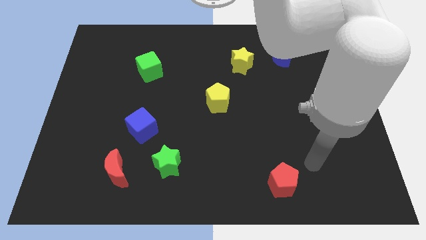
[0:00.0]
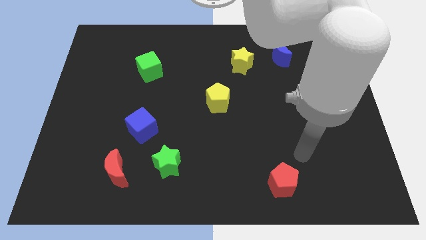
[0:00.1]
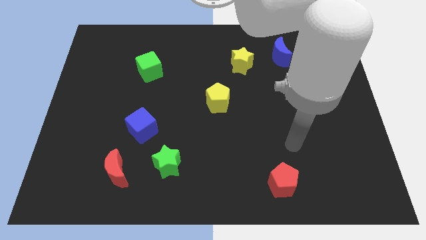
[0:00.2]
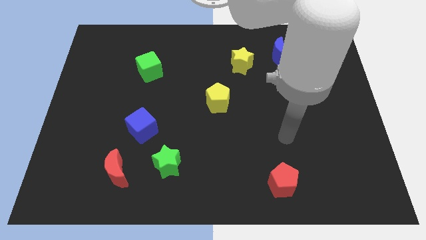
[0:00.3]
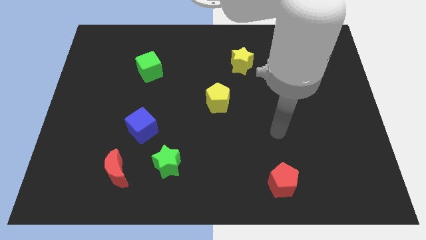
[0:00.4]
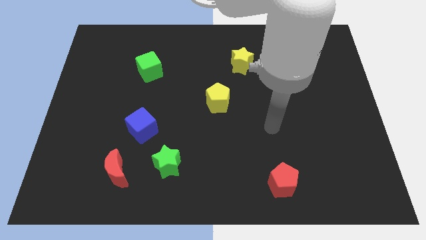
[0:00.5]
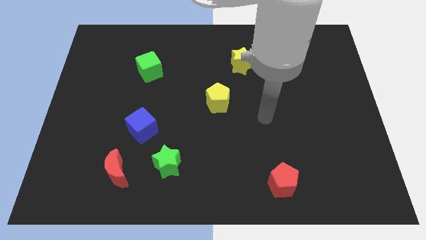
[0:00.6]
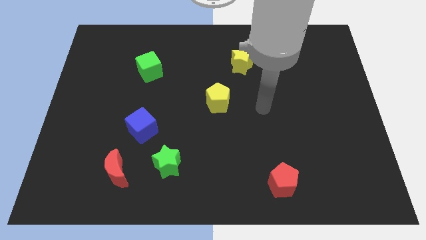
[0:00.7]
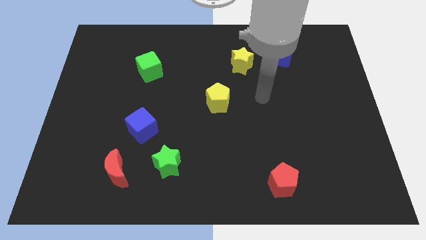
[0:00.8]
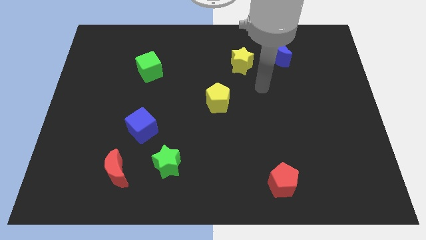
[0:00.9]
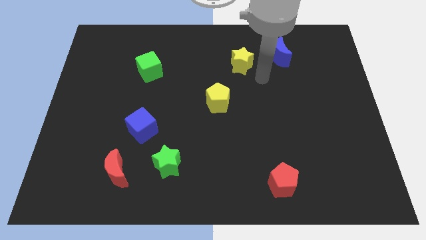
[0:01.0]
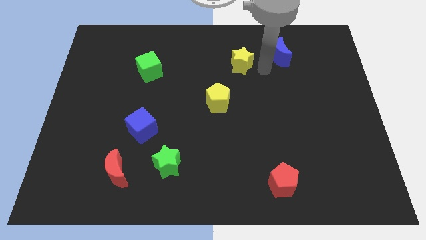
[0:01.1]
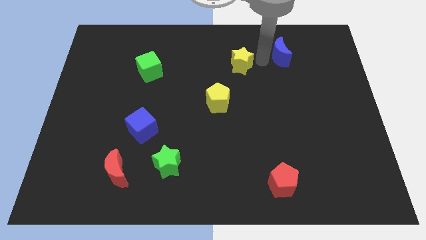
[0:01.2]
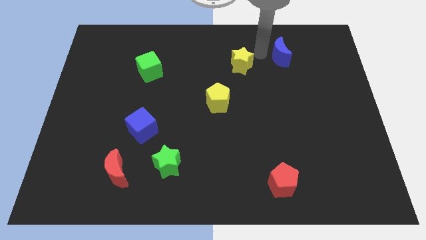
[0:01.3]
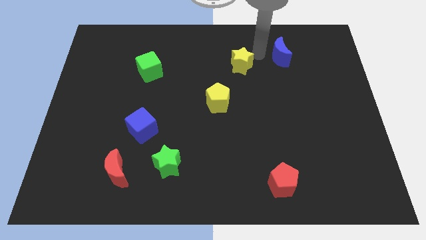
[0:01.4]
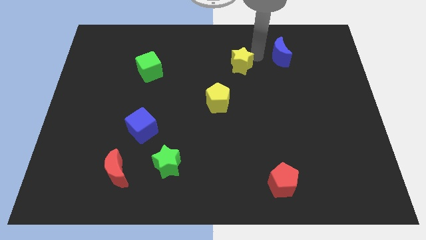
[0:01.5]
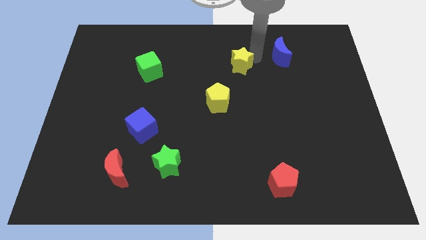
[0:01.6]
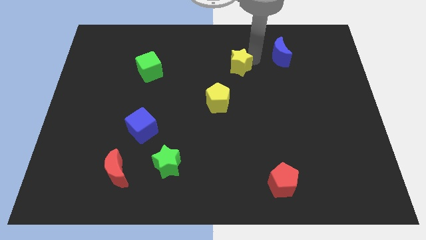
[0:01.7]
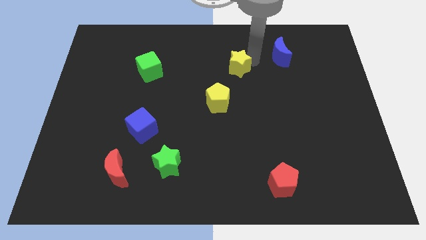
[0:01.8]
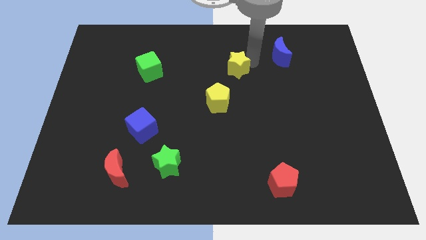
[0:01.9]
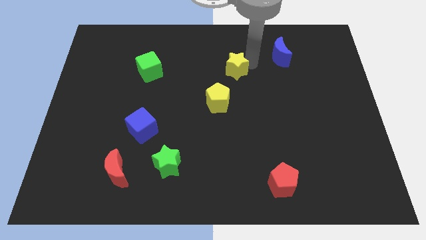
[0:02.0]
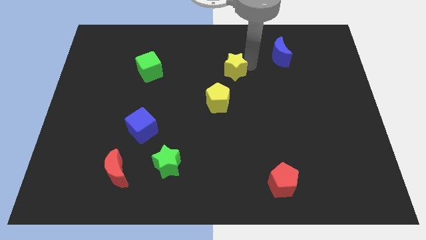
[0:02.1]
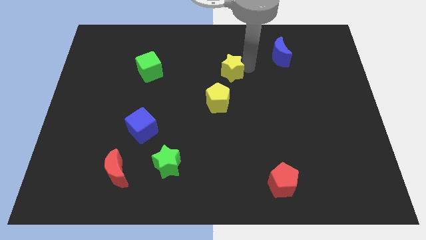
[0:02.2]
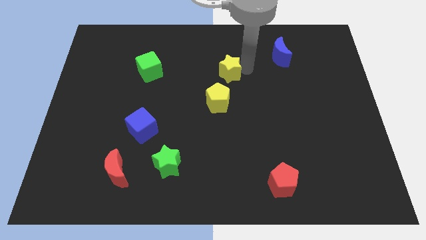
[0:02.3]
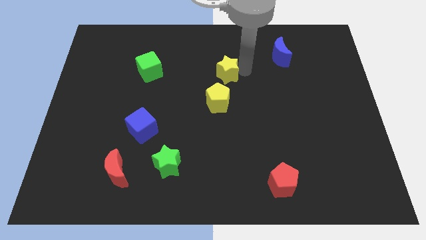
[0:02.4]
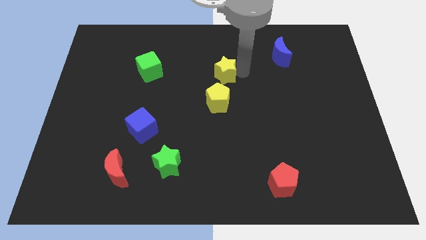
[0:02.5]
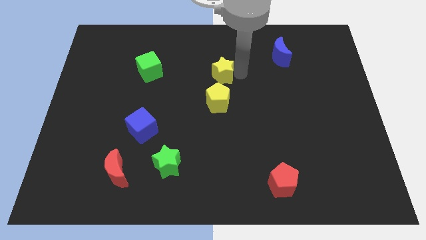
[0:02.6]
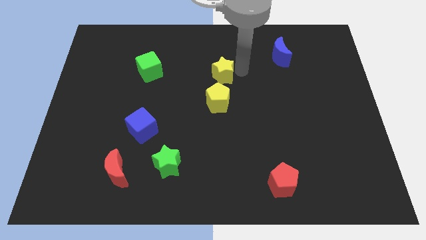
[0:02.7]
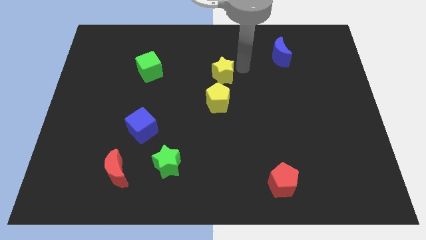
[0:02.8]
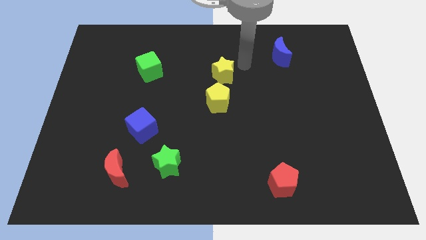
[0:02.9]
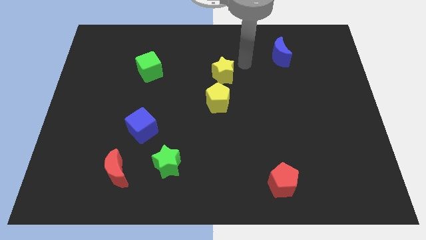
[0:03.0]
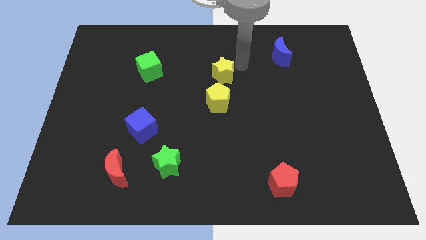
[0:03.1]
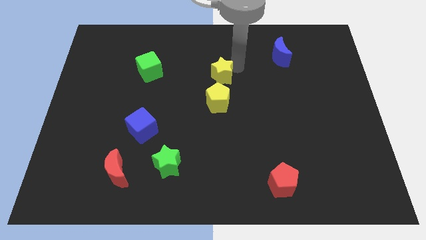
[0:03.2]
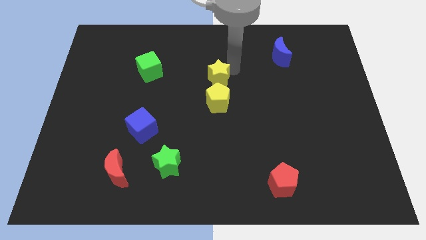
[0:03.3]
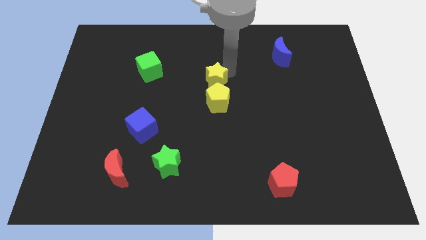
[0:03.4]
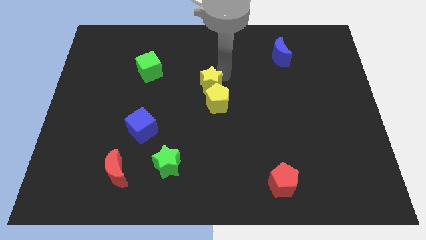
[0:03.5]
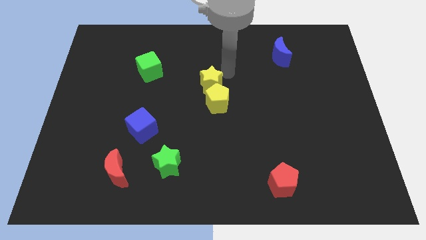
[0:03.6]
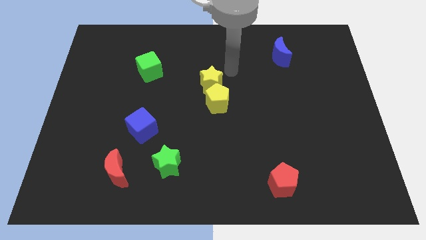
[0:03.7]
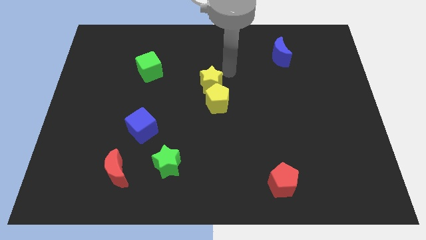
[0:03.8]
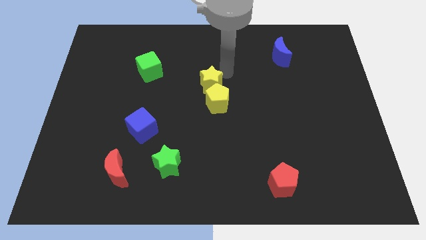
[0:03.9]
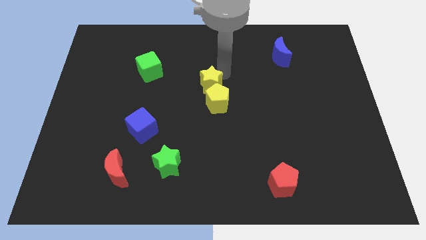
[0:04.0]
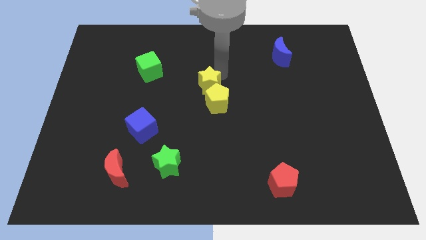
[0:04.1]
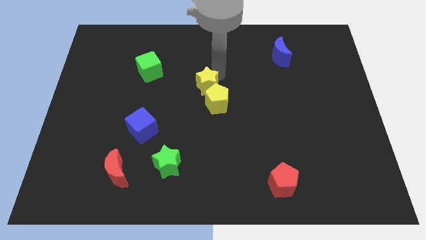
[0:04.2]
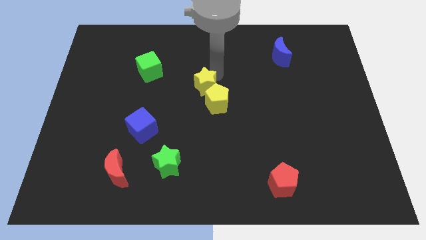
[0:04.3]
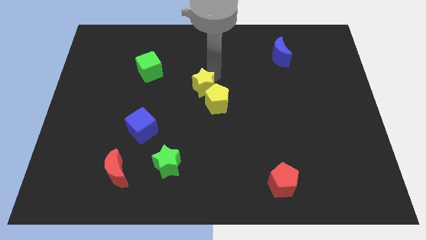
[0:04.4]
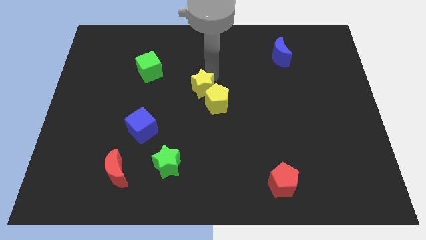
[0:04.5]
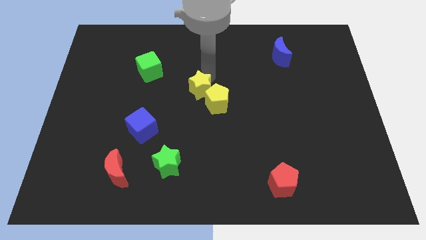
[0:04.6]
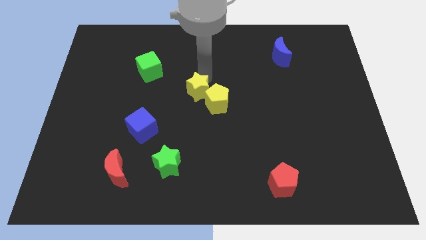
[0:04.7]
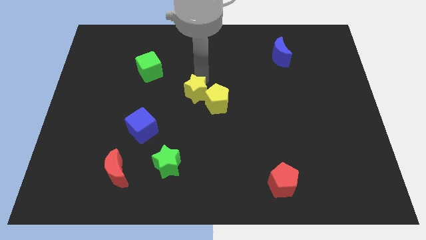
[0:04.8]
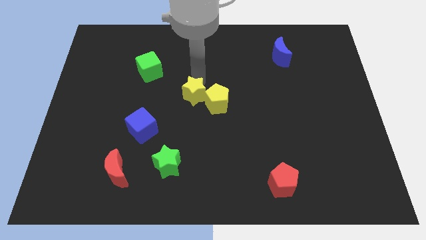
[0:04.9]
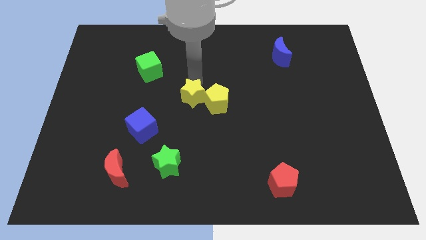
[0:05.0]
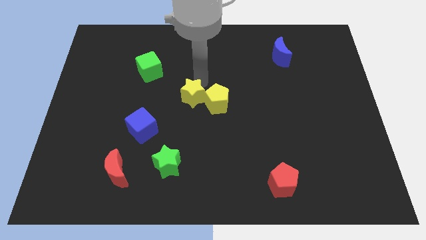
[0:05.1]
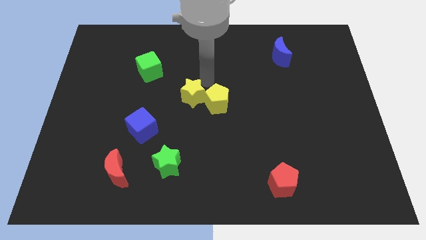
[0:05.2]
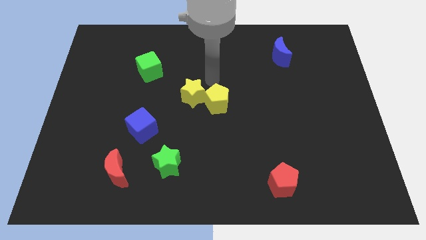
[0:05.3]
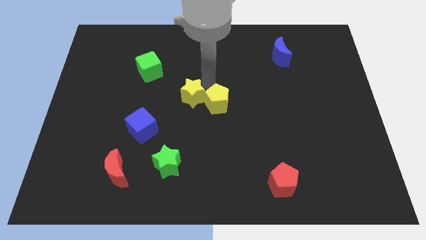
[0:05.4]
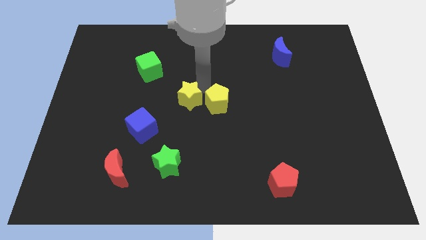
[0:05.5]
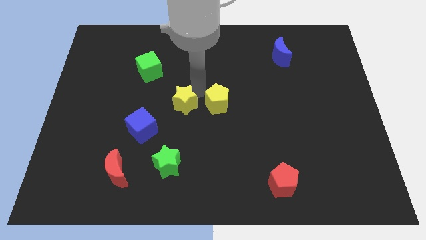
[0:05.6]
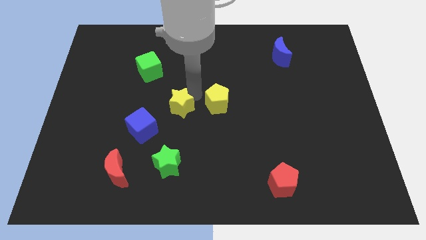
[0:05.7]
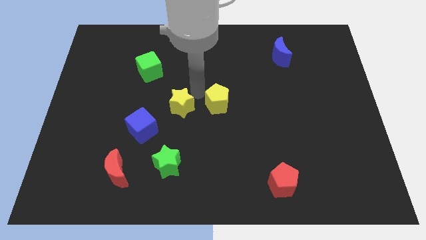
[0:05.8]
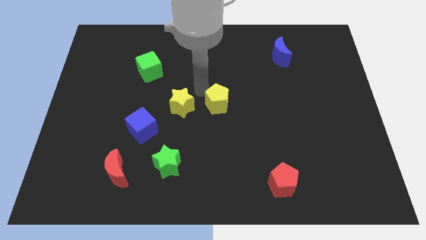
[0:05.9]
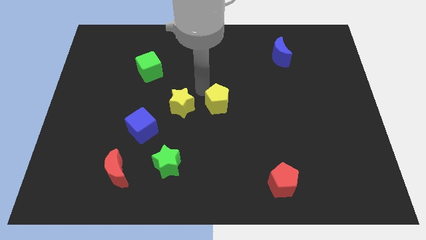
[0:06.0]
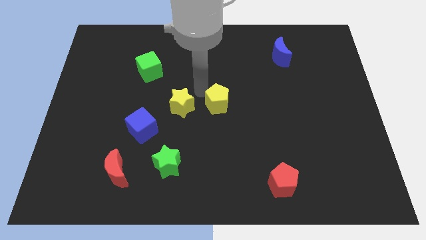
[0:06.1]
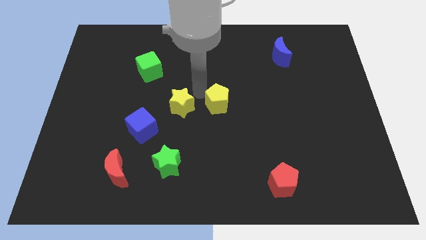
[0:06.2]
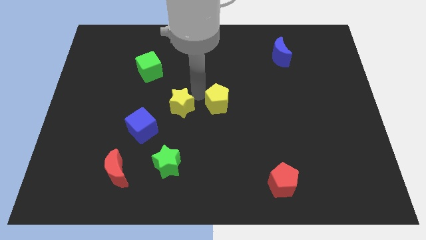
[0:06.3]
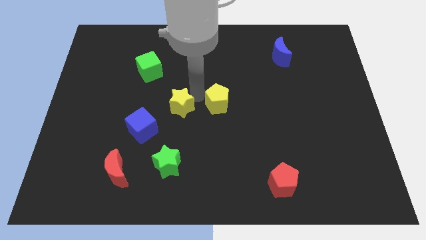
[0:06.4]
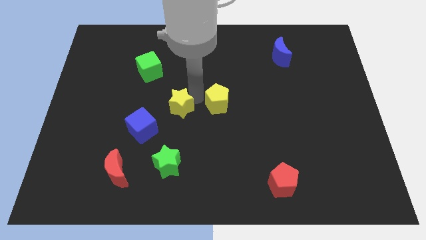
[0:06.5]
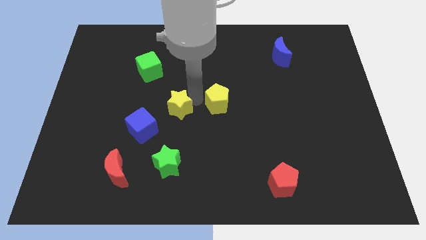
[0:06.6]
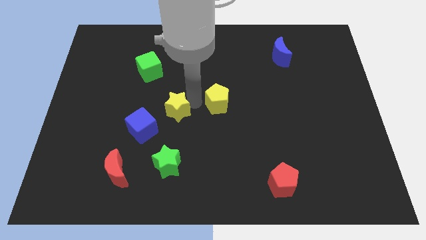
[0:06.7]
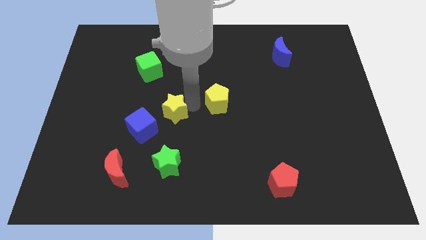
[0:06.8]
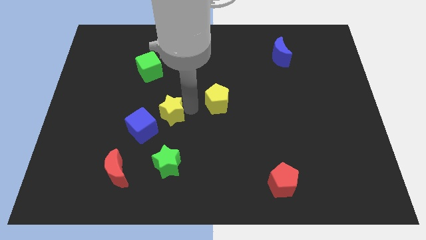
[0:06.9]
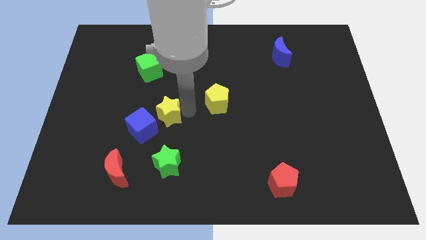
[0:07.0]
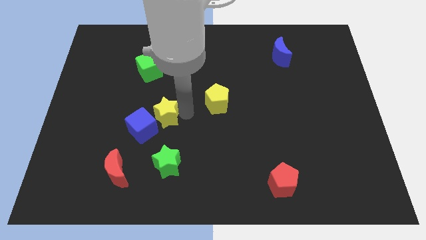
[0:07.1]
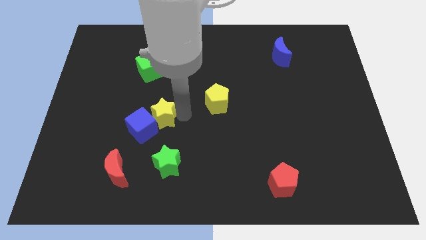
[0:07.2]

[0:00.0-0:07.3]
put the yellow star next to the blue cube
